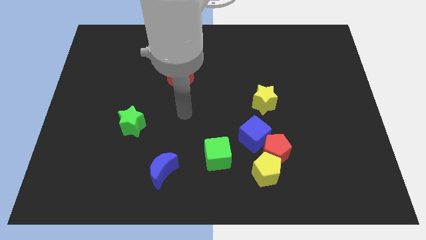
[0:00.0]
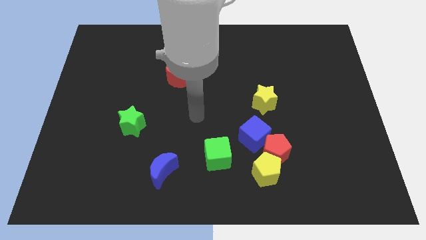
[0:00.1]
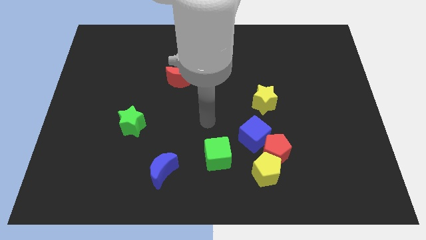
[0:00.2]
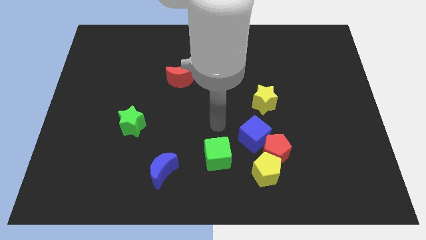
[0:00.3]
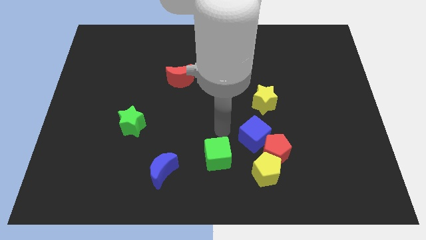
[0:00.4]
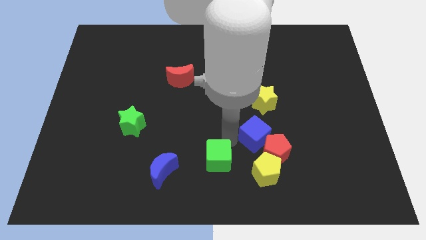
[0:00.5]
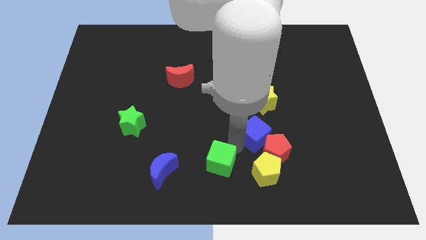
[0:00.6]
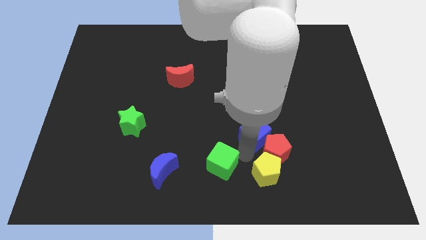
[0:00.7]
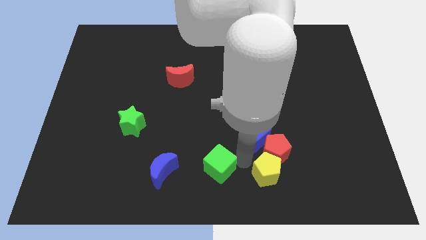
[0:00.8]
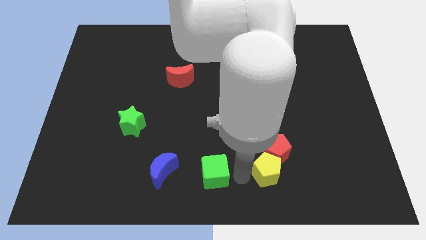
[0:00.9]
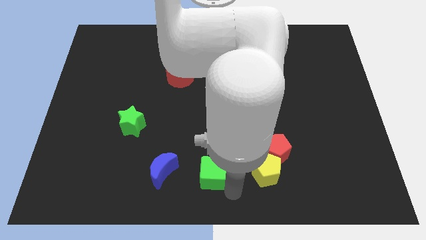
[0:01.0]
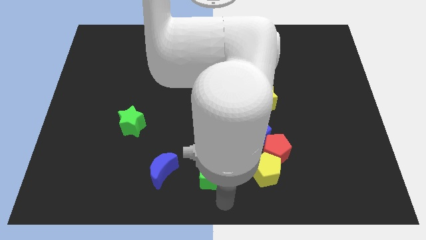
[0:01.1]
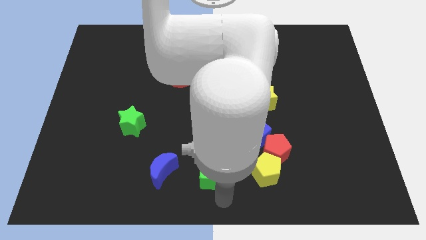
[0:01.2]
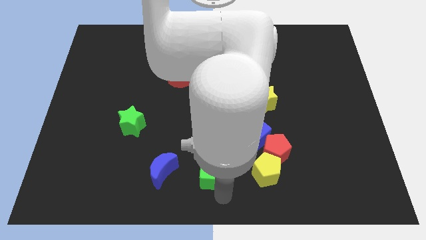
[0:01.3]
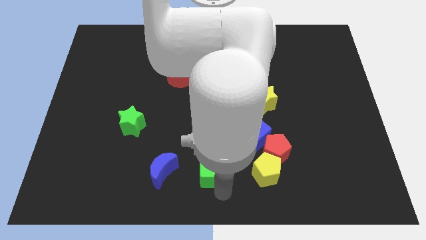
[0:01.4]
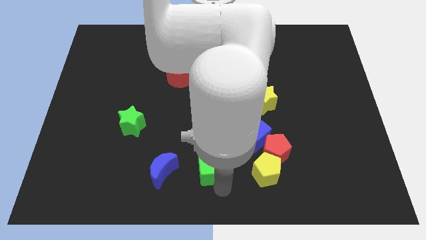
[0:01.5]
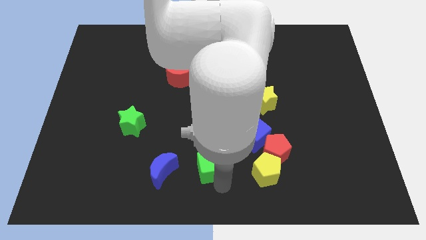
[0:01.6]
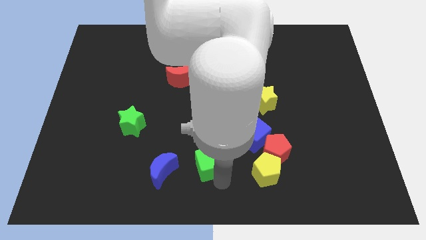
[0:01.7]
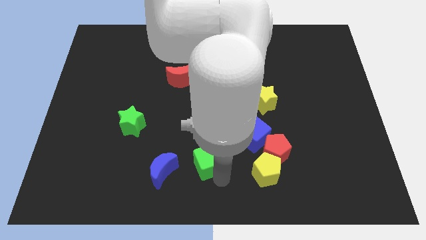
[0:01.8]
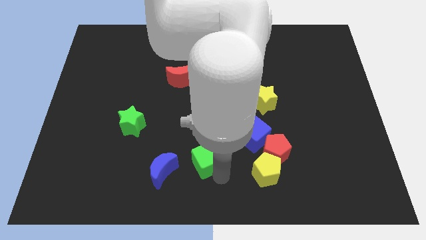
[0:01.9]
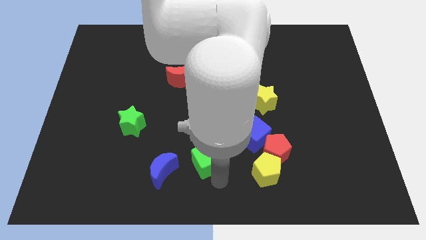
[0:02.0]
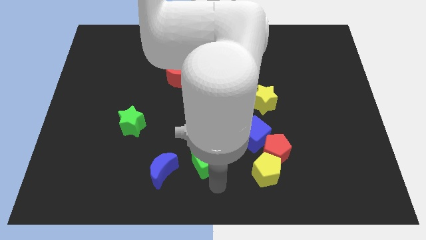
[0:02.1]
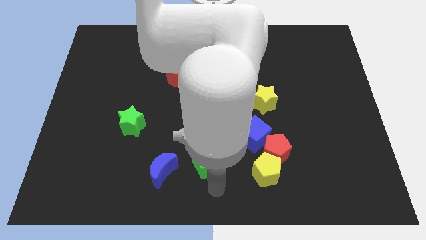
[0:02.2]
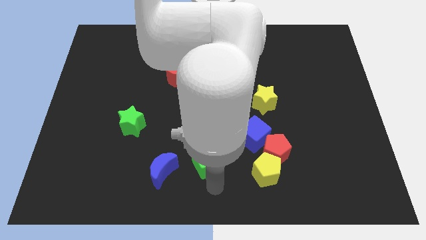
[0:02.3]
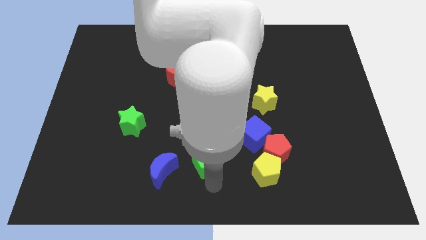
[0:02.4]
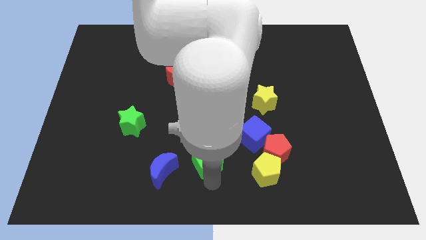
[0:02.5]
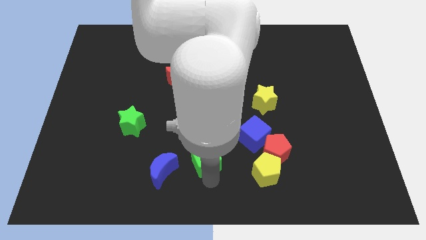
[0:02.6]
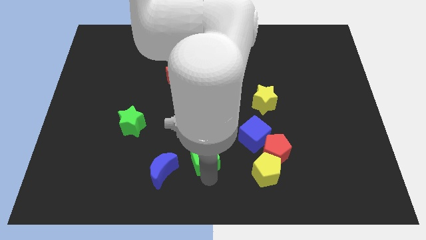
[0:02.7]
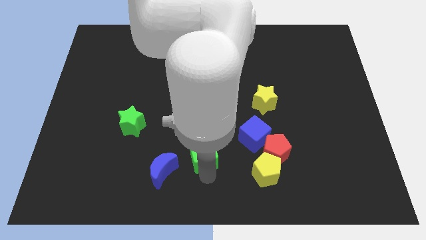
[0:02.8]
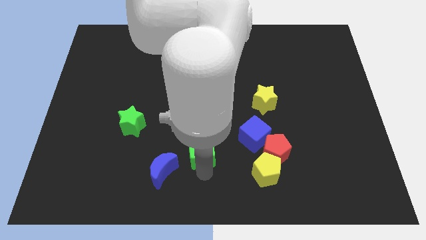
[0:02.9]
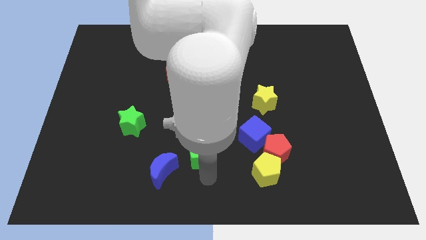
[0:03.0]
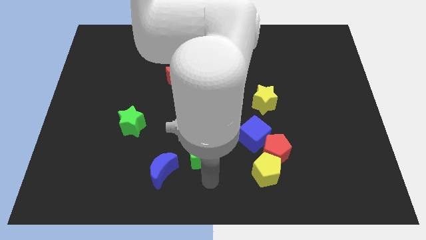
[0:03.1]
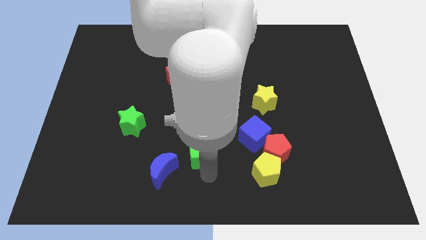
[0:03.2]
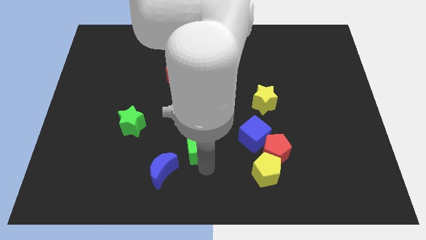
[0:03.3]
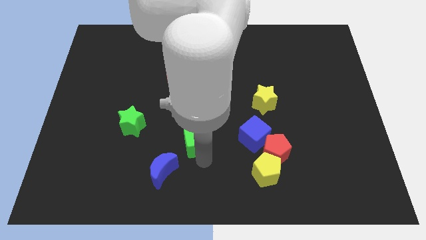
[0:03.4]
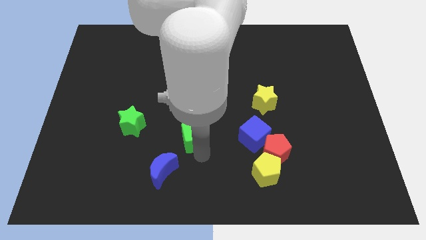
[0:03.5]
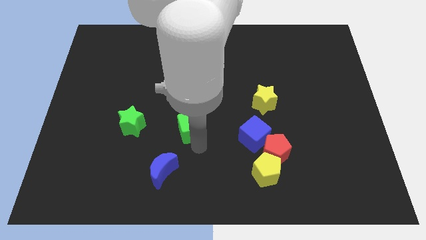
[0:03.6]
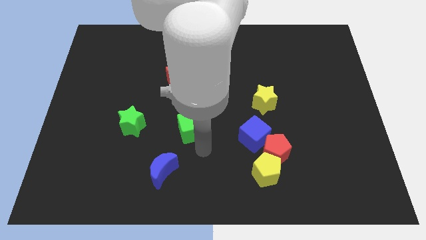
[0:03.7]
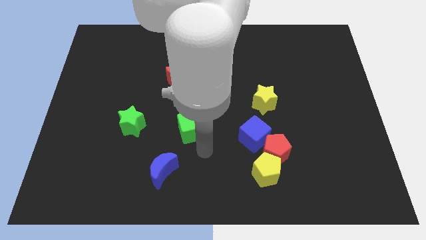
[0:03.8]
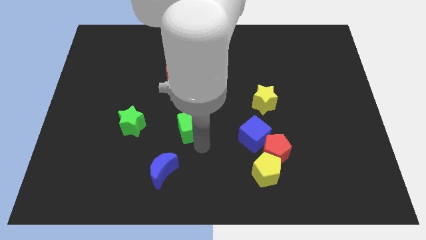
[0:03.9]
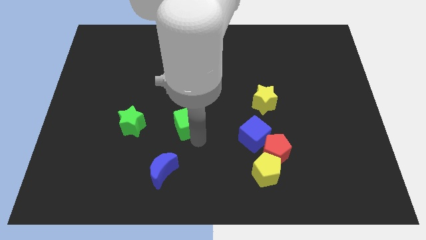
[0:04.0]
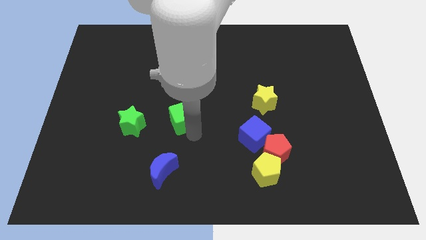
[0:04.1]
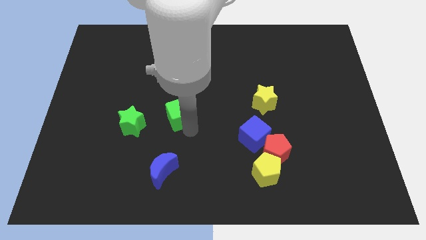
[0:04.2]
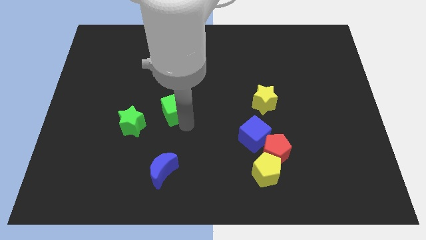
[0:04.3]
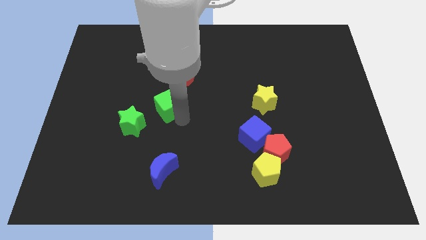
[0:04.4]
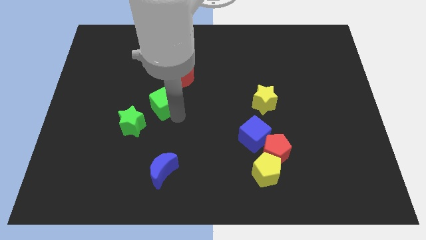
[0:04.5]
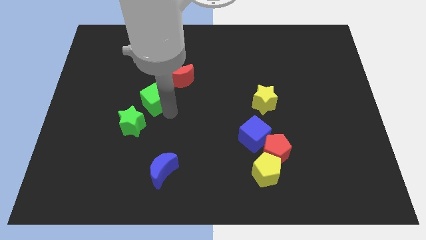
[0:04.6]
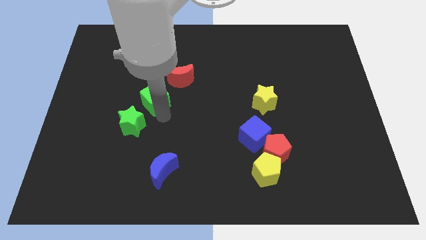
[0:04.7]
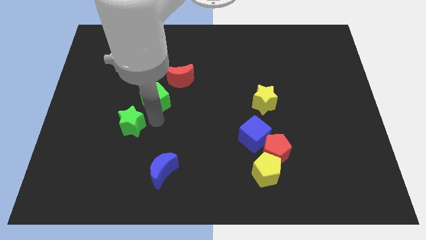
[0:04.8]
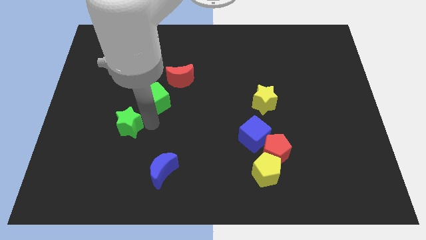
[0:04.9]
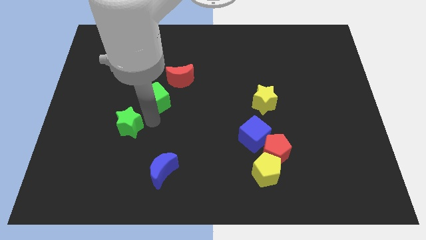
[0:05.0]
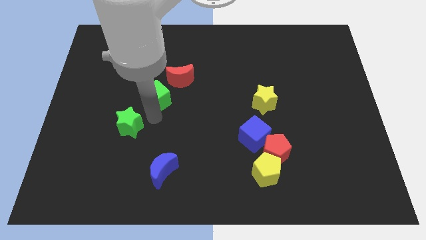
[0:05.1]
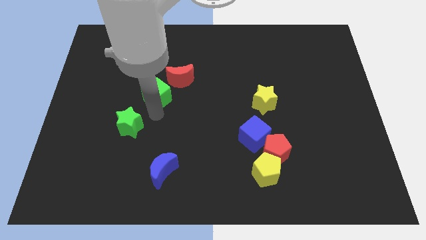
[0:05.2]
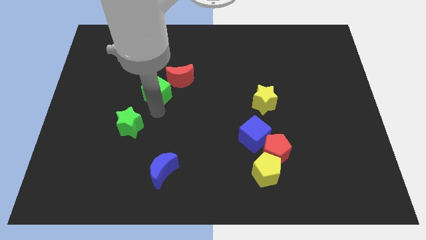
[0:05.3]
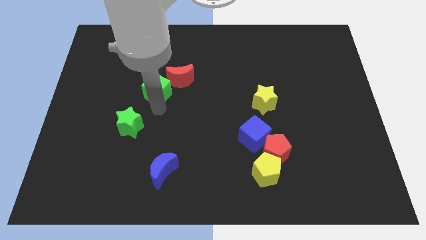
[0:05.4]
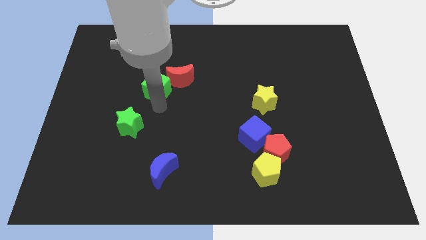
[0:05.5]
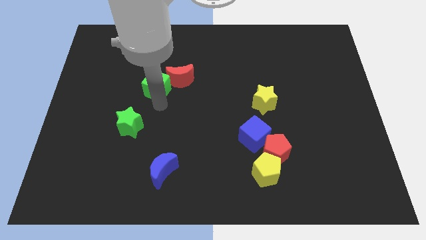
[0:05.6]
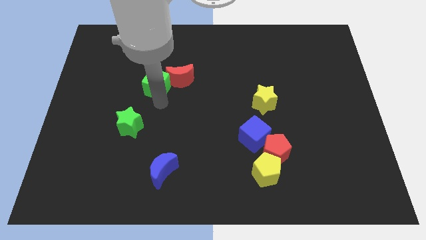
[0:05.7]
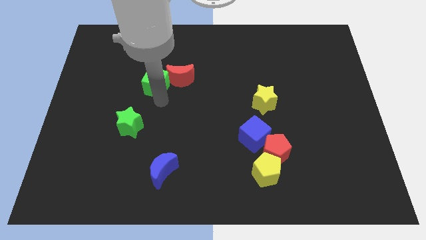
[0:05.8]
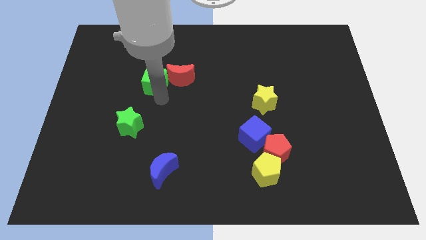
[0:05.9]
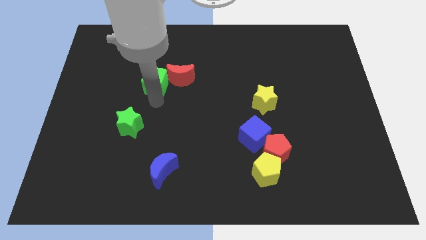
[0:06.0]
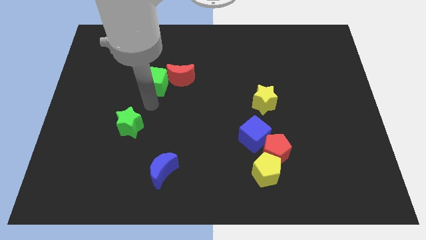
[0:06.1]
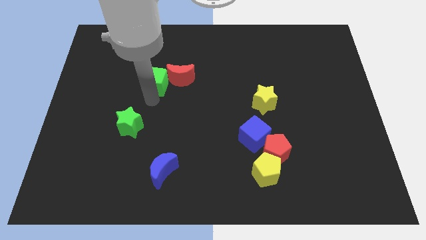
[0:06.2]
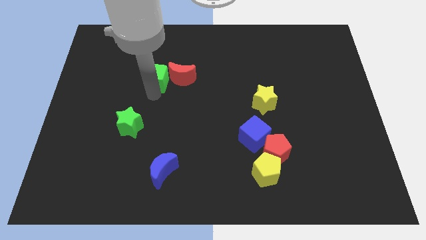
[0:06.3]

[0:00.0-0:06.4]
push the green cube to the top left side of the red moon

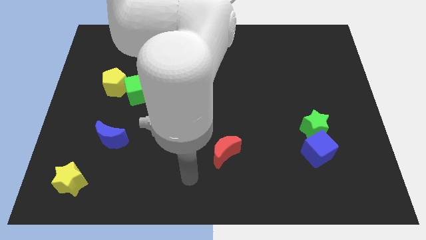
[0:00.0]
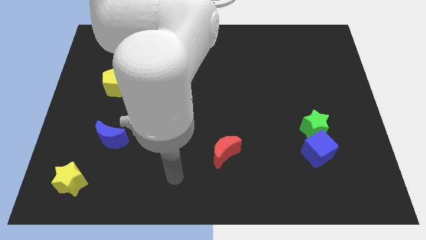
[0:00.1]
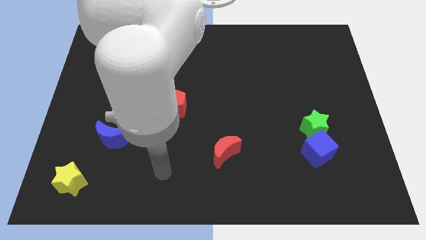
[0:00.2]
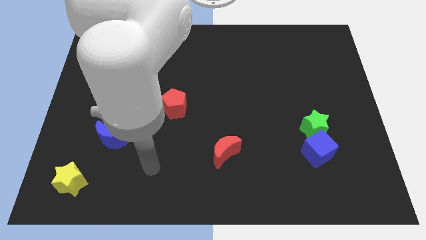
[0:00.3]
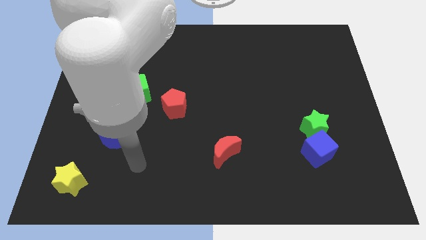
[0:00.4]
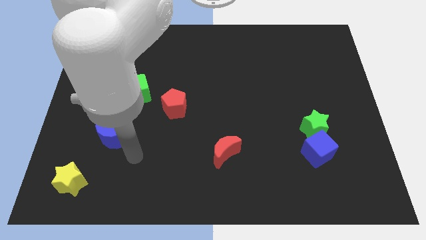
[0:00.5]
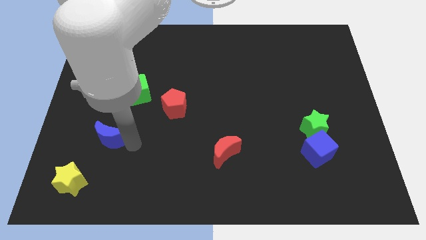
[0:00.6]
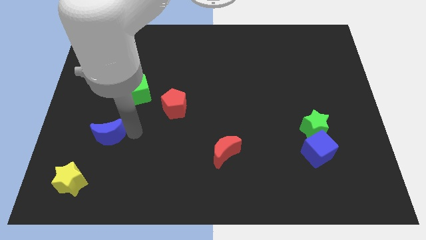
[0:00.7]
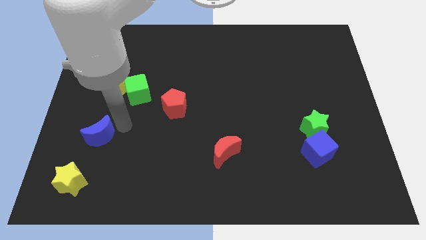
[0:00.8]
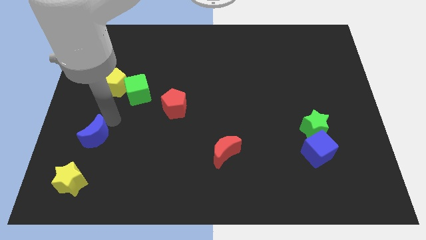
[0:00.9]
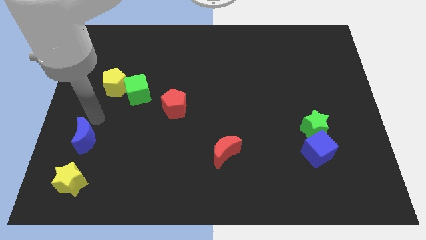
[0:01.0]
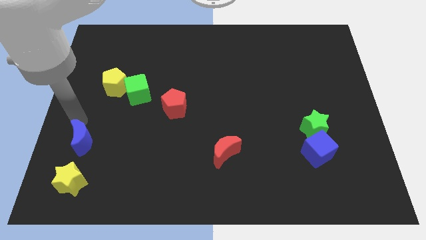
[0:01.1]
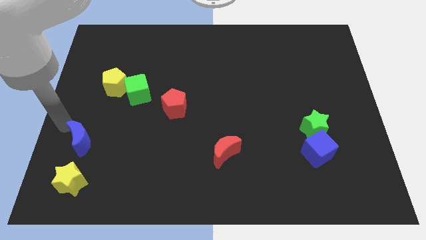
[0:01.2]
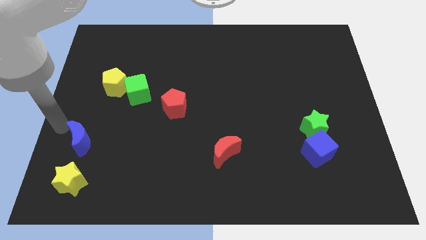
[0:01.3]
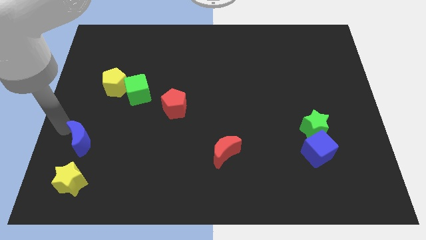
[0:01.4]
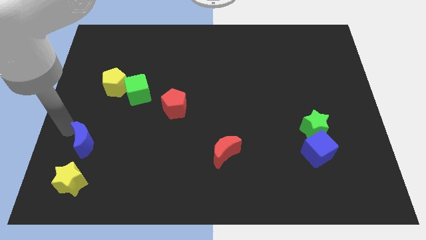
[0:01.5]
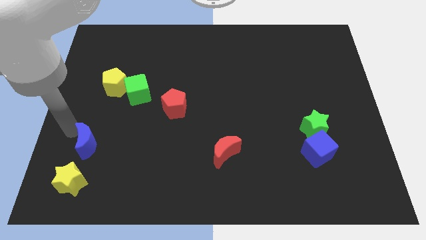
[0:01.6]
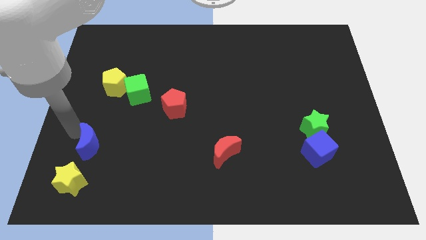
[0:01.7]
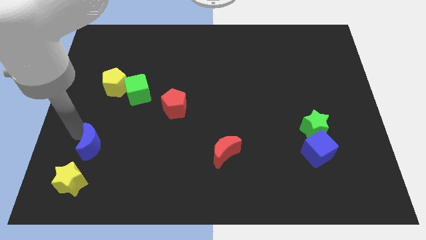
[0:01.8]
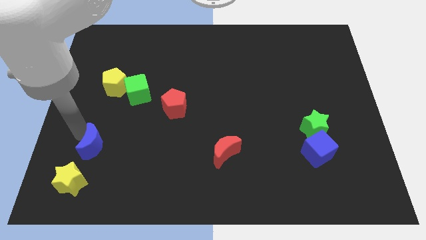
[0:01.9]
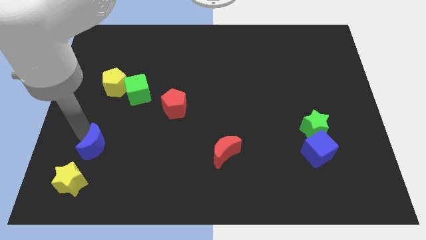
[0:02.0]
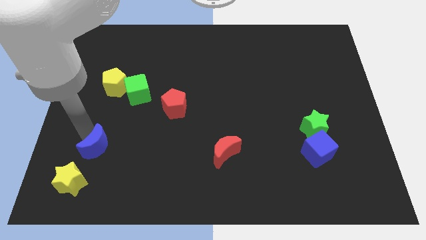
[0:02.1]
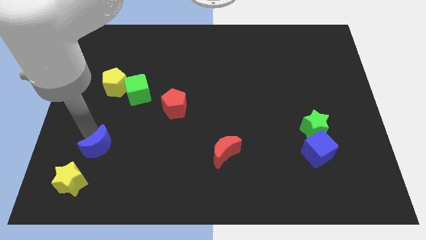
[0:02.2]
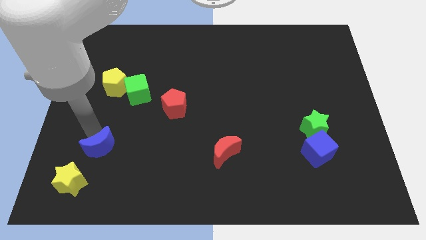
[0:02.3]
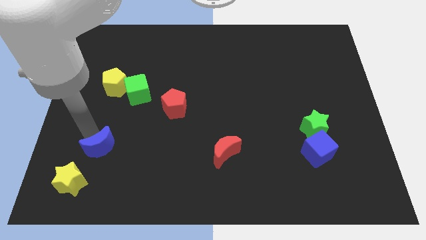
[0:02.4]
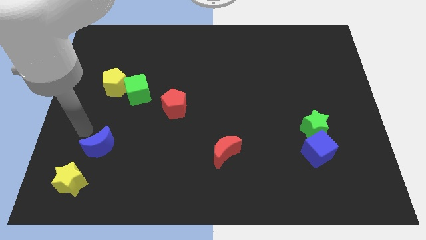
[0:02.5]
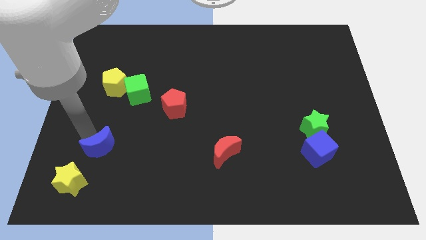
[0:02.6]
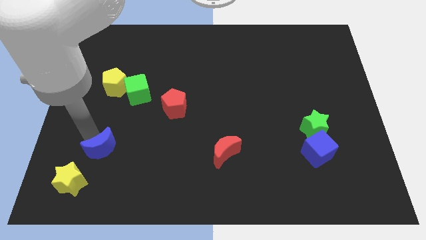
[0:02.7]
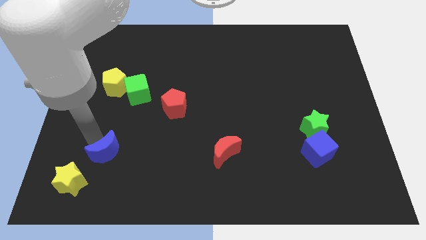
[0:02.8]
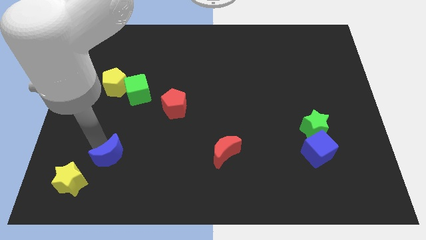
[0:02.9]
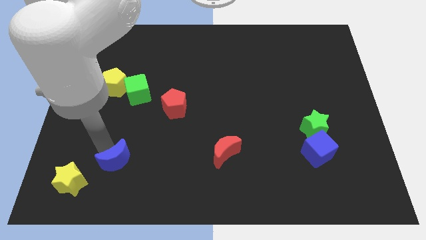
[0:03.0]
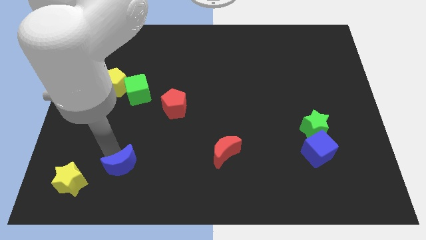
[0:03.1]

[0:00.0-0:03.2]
put the blue moon just right of the yellow star
